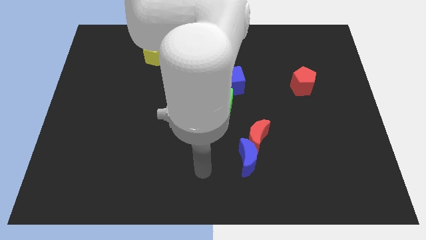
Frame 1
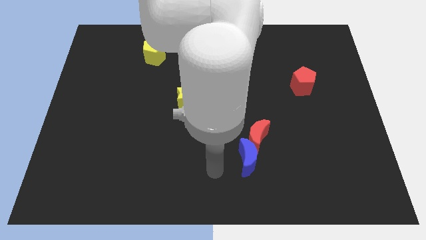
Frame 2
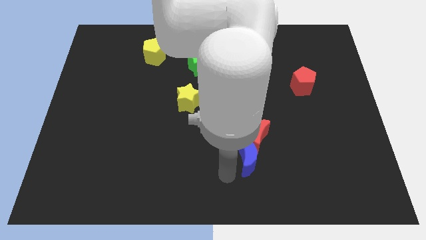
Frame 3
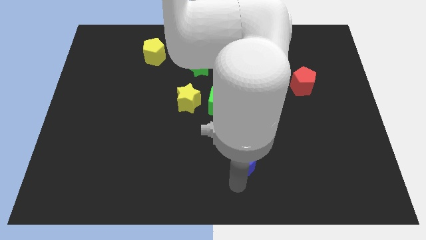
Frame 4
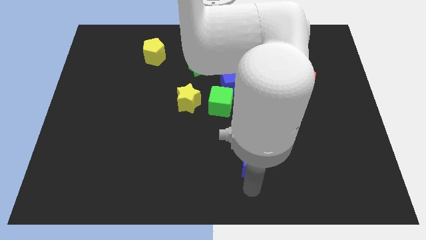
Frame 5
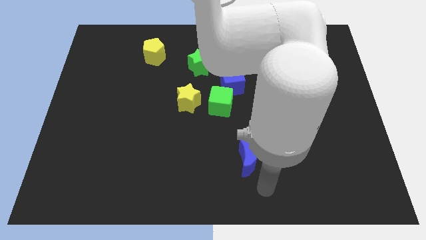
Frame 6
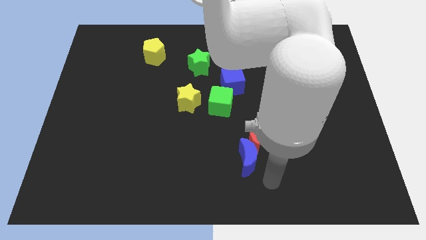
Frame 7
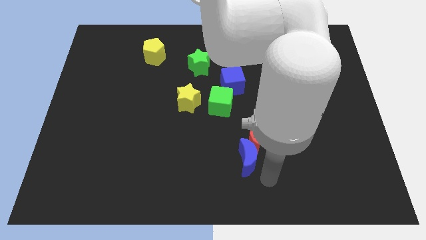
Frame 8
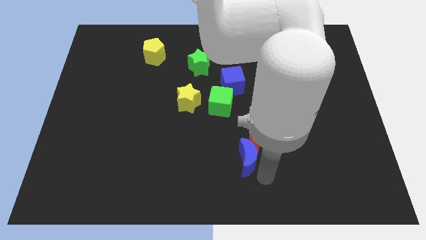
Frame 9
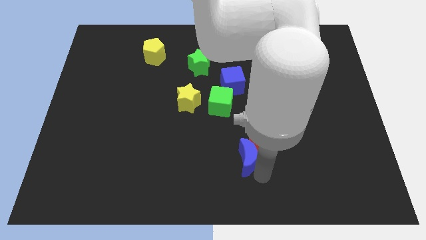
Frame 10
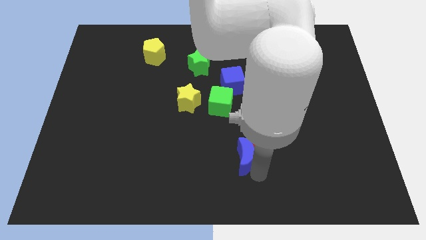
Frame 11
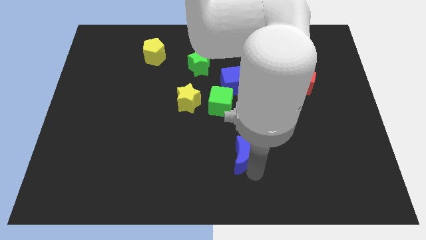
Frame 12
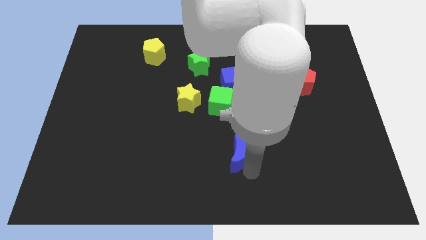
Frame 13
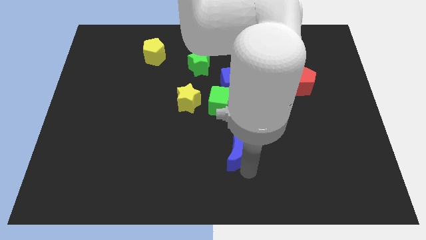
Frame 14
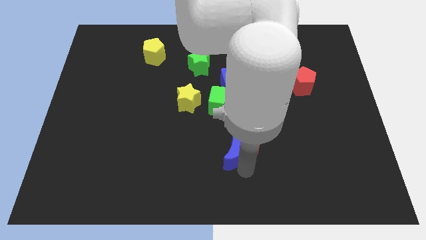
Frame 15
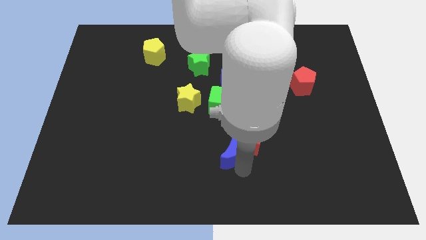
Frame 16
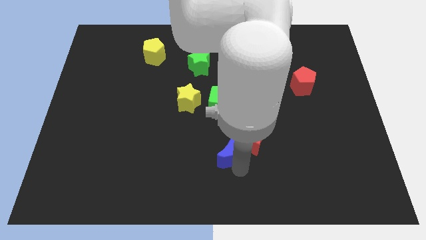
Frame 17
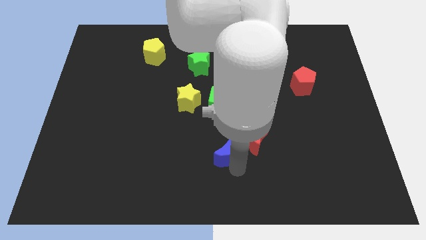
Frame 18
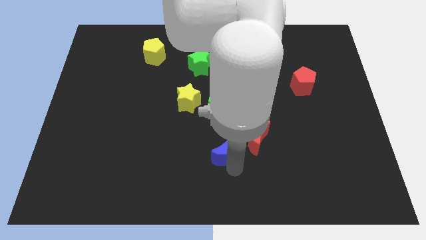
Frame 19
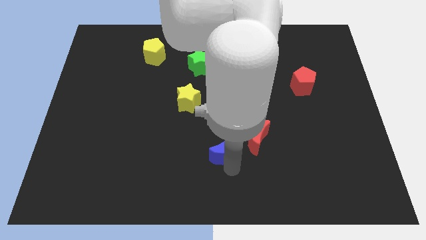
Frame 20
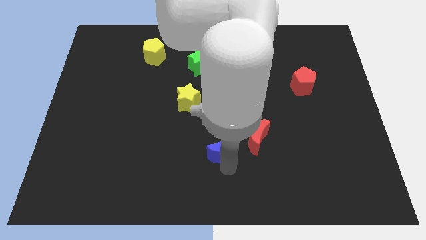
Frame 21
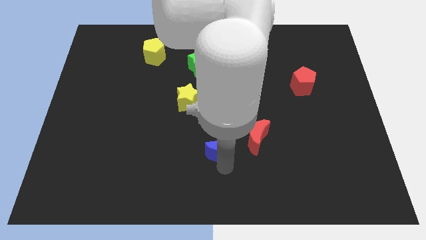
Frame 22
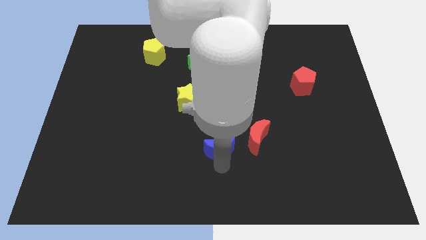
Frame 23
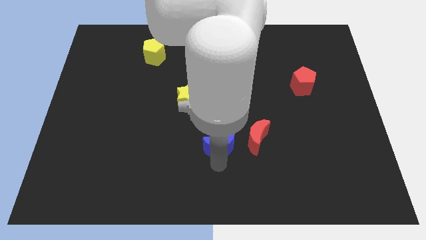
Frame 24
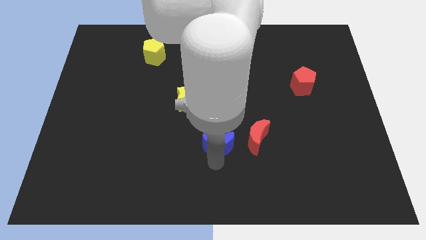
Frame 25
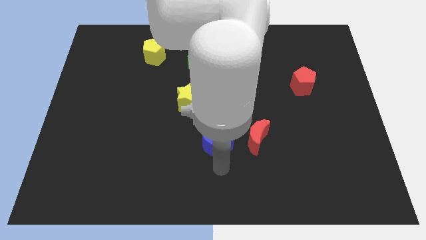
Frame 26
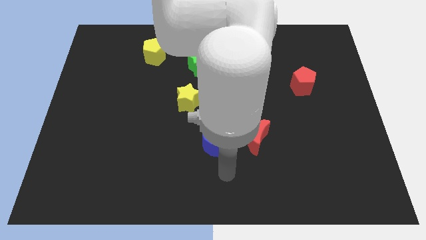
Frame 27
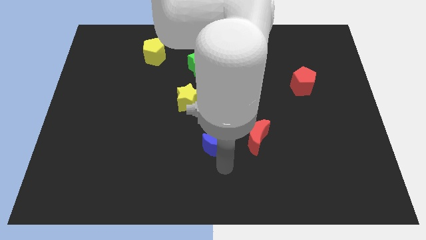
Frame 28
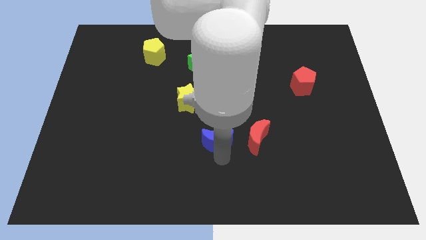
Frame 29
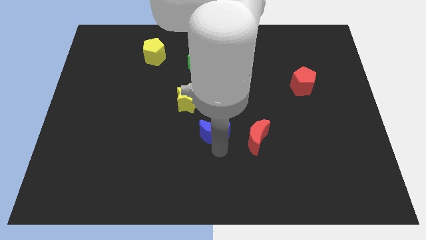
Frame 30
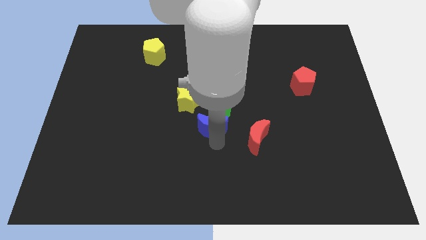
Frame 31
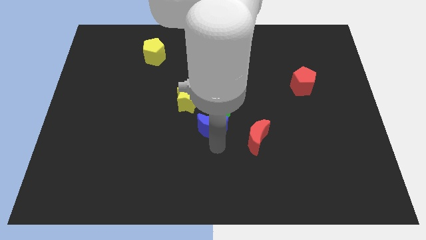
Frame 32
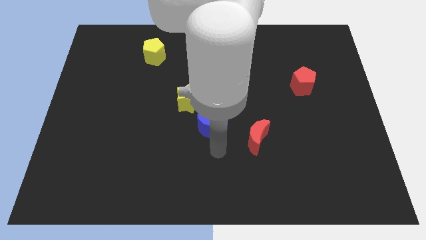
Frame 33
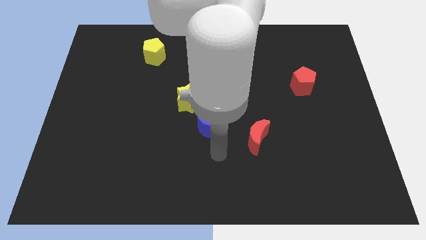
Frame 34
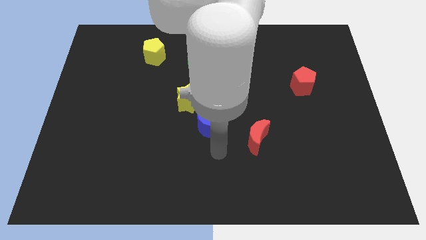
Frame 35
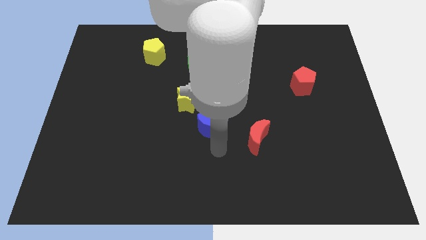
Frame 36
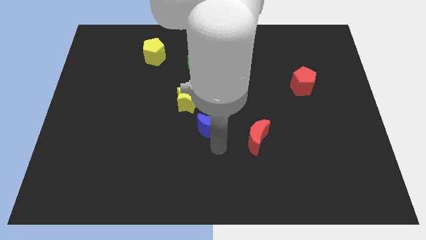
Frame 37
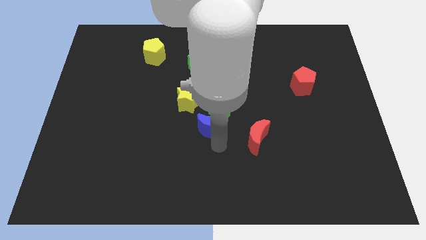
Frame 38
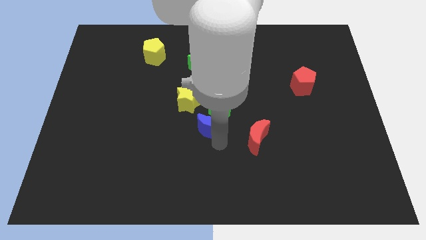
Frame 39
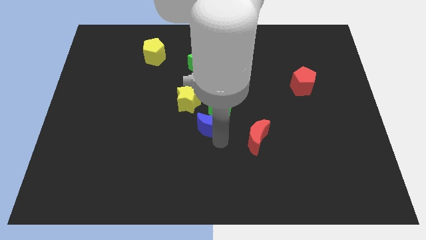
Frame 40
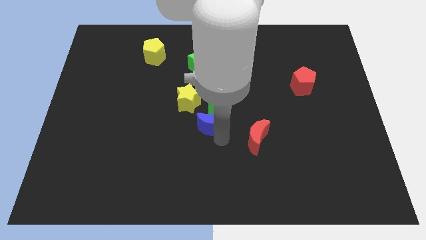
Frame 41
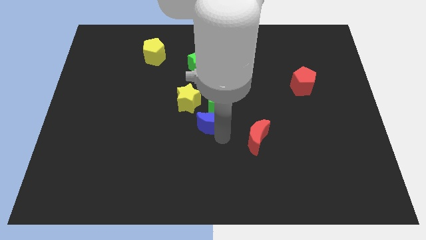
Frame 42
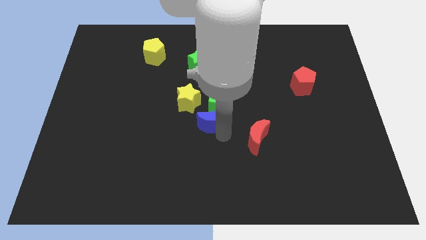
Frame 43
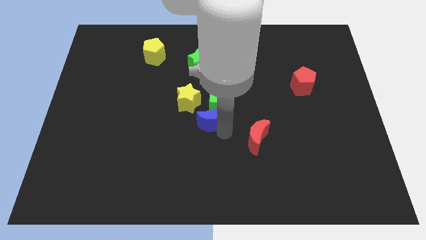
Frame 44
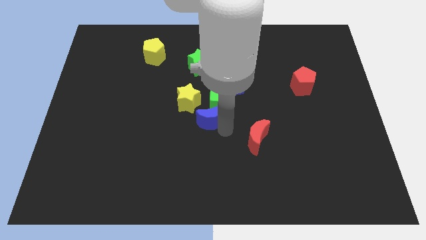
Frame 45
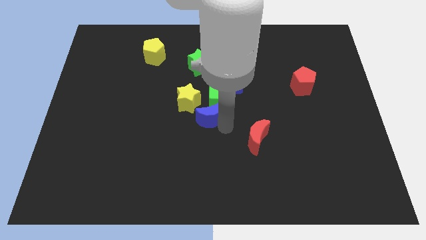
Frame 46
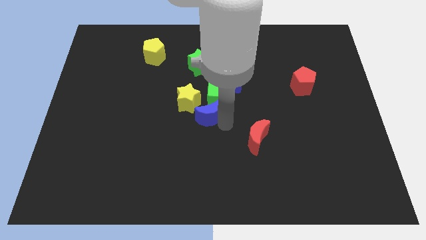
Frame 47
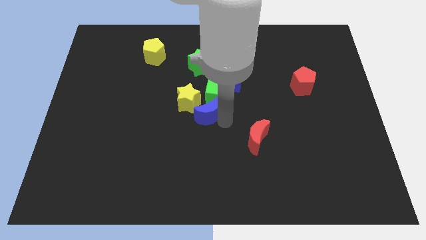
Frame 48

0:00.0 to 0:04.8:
put the blue moon next to the yellow star

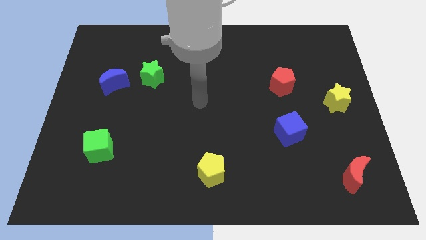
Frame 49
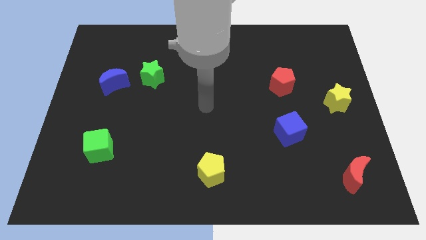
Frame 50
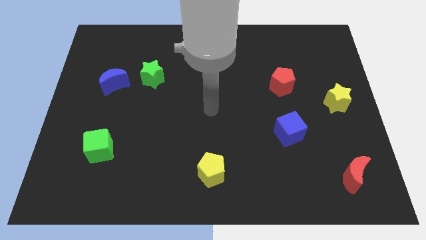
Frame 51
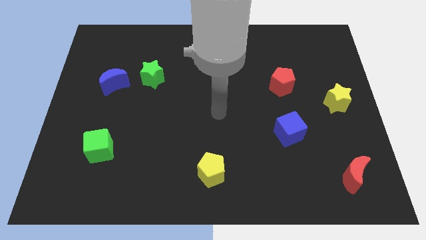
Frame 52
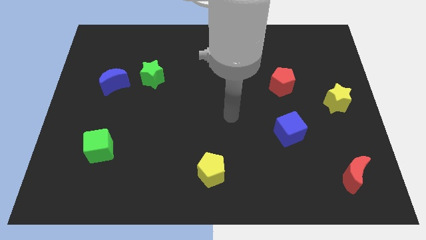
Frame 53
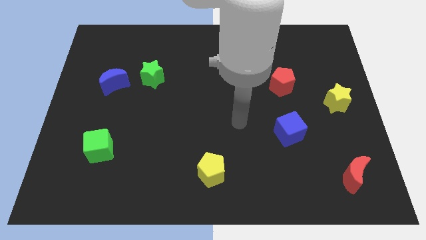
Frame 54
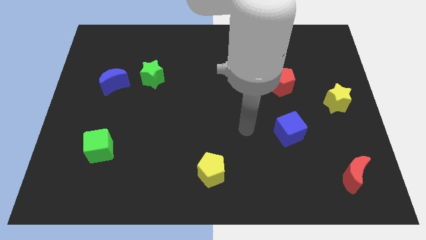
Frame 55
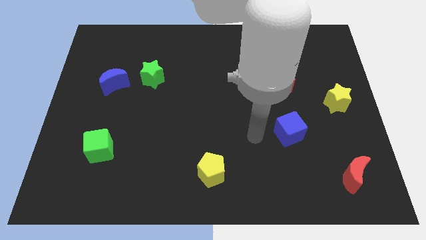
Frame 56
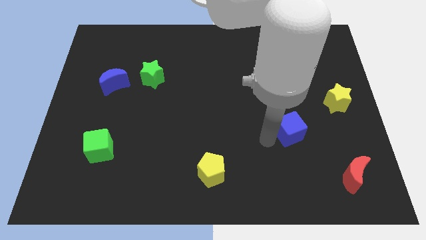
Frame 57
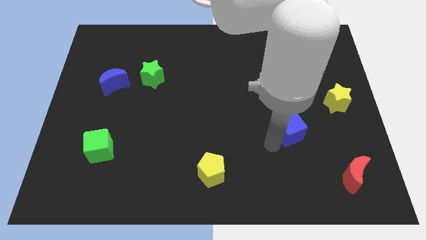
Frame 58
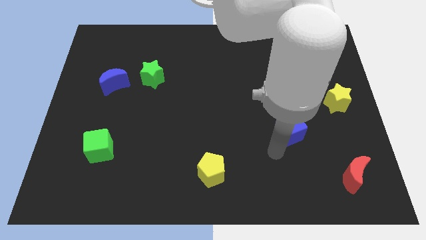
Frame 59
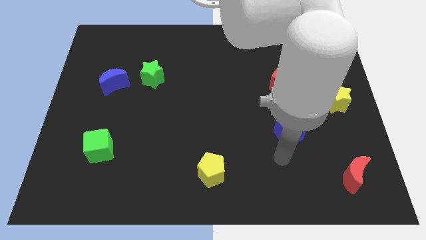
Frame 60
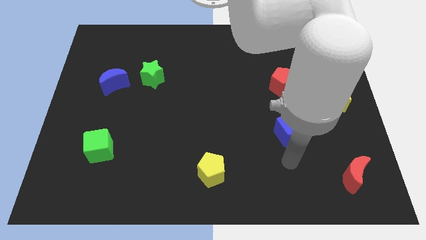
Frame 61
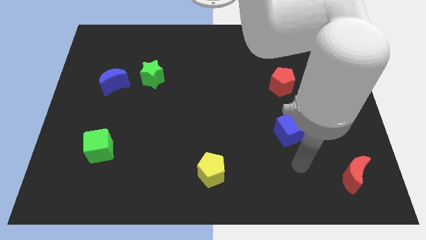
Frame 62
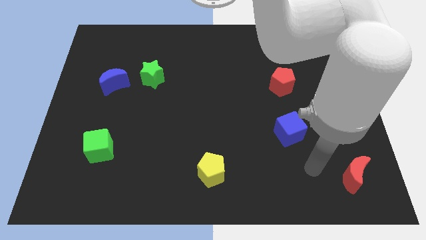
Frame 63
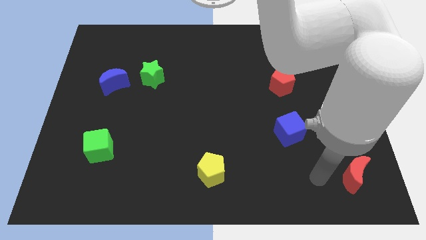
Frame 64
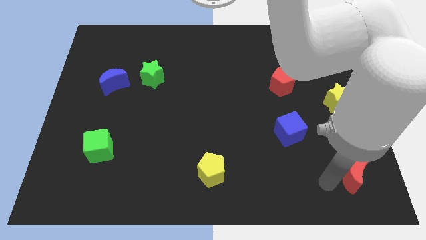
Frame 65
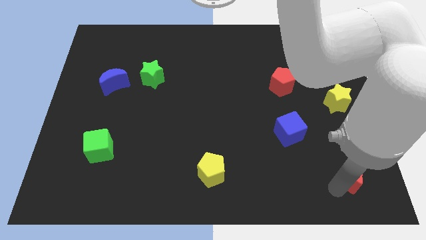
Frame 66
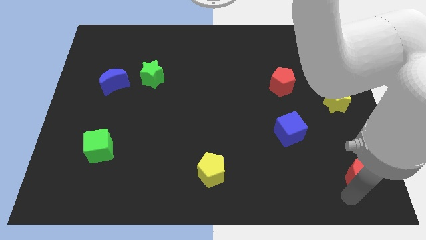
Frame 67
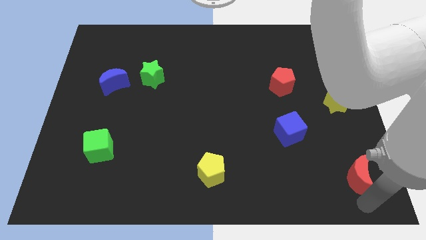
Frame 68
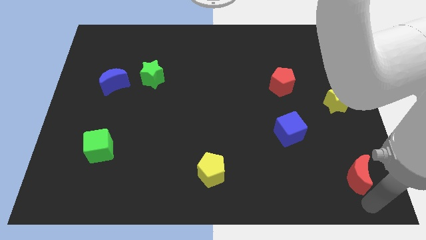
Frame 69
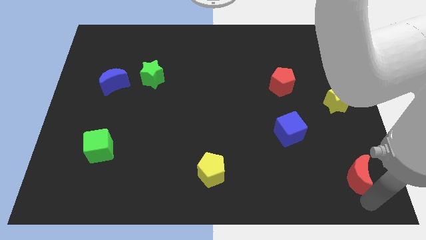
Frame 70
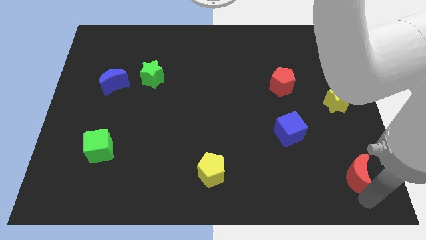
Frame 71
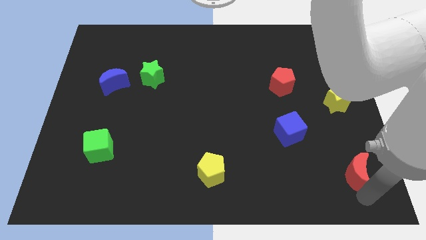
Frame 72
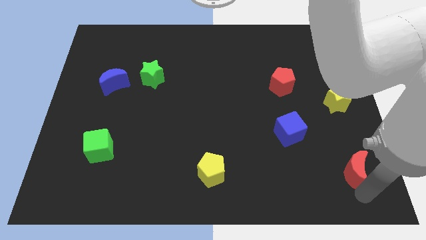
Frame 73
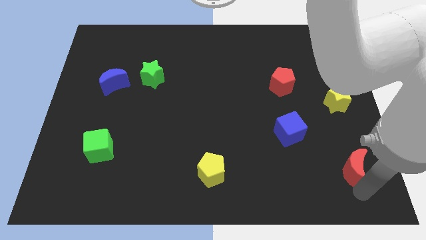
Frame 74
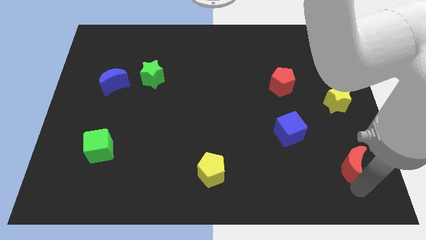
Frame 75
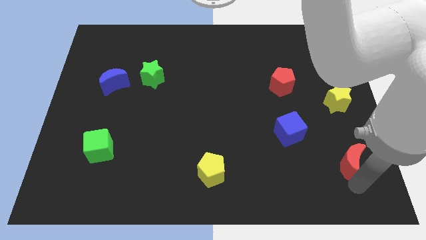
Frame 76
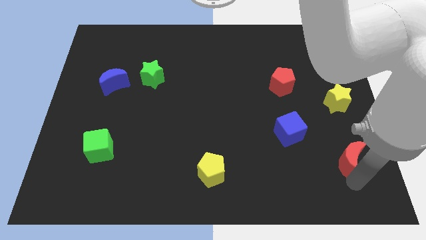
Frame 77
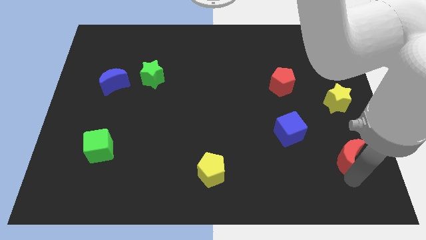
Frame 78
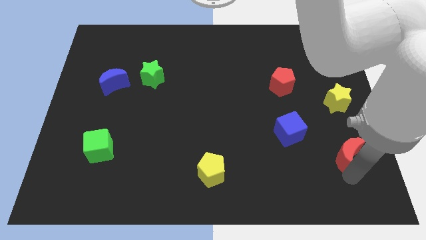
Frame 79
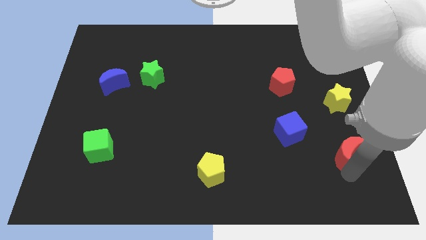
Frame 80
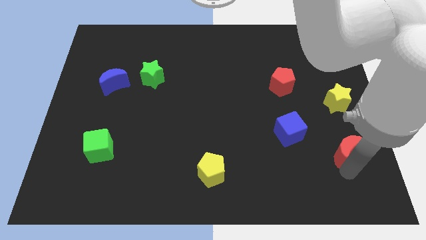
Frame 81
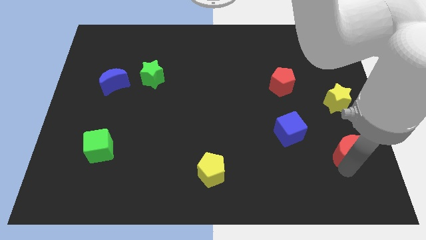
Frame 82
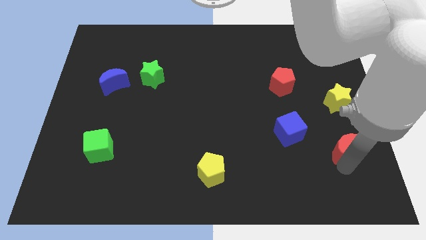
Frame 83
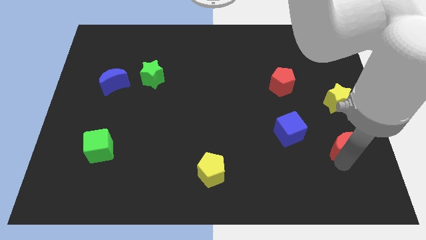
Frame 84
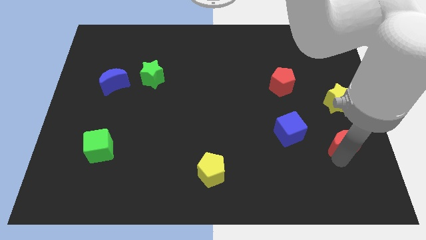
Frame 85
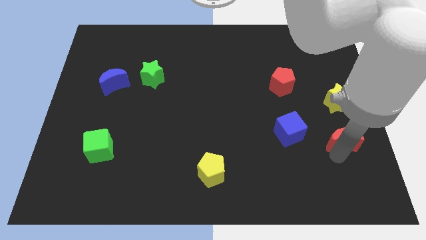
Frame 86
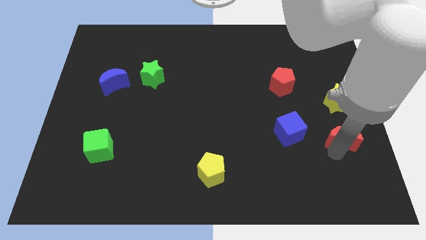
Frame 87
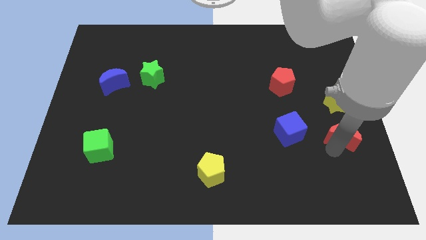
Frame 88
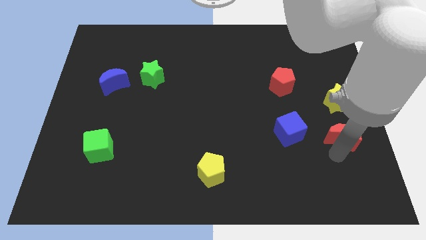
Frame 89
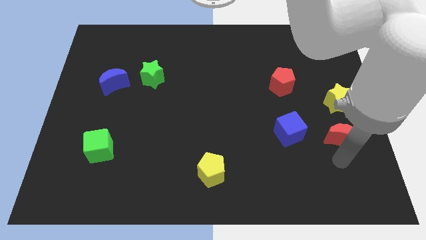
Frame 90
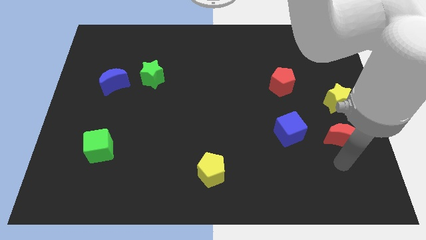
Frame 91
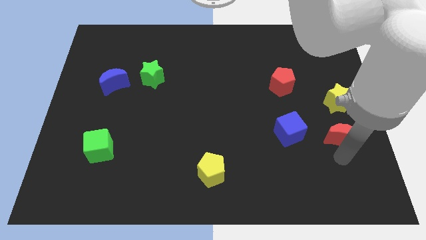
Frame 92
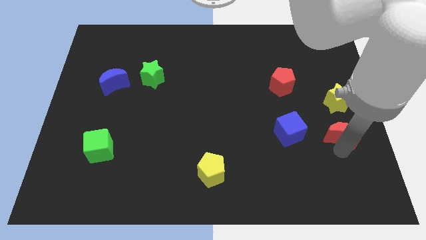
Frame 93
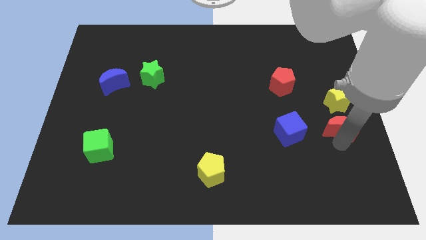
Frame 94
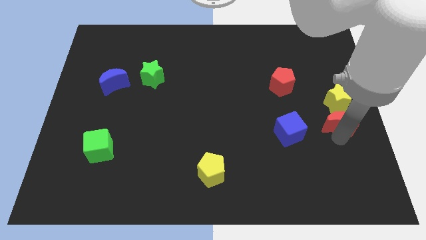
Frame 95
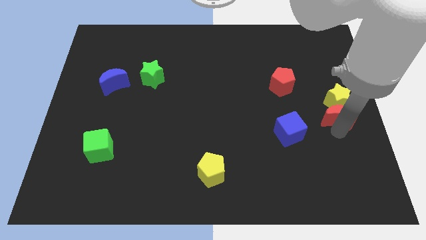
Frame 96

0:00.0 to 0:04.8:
put the red moon towards the yellow star
